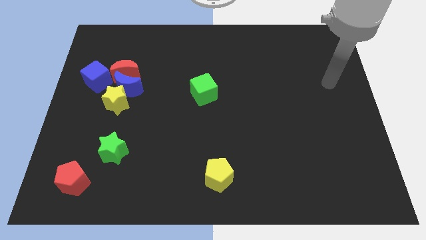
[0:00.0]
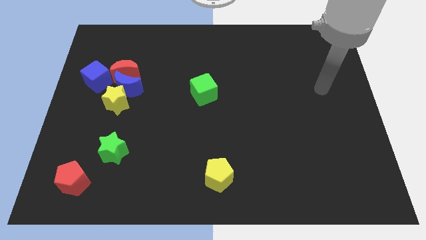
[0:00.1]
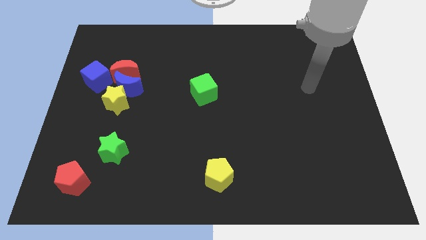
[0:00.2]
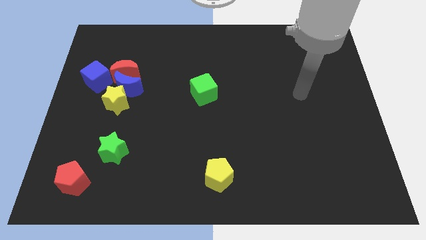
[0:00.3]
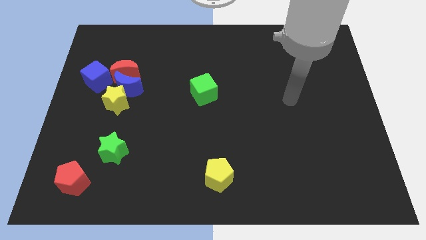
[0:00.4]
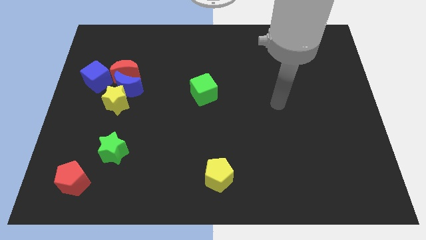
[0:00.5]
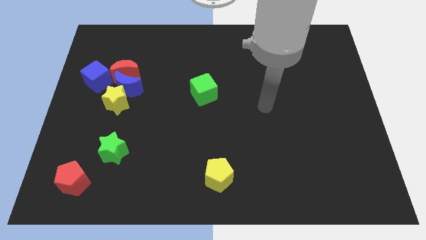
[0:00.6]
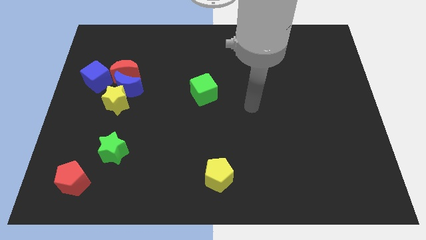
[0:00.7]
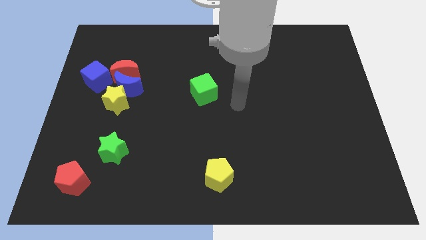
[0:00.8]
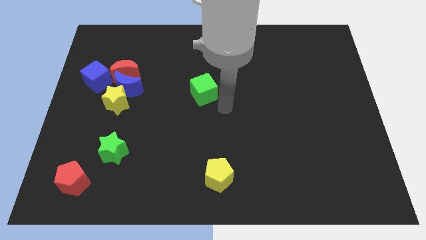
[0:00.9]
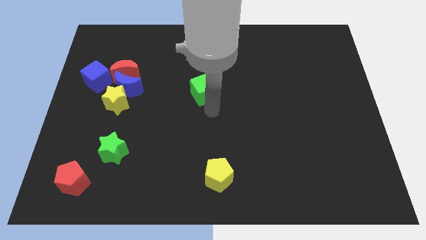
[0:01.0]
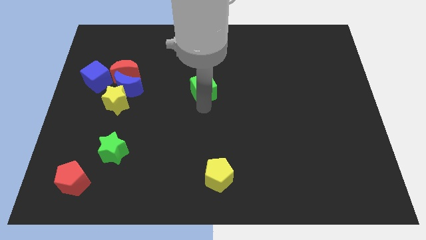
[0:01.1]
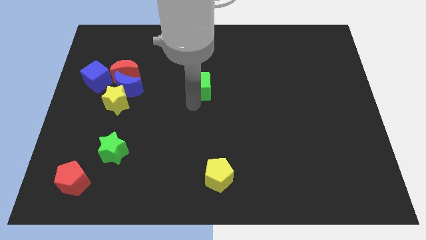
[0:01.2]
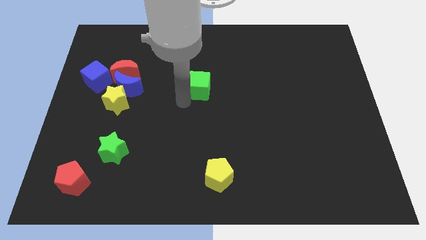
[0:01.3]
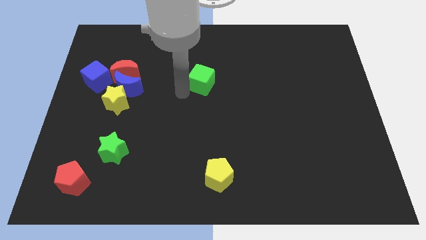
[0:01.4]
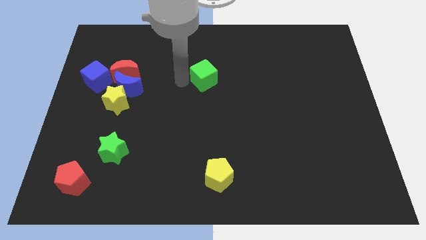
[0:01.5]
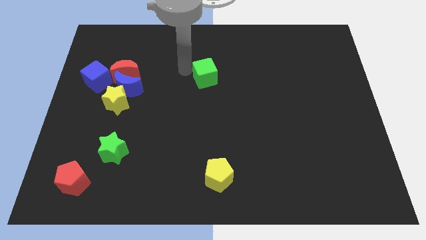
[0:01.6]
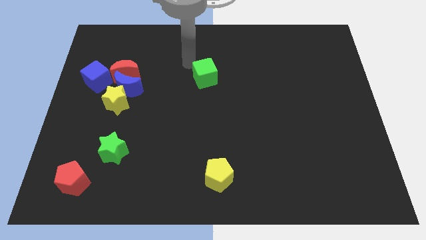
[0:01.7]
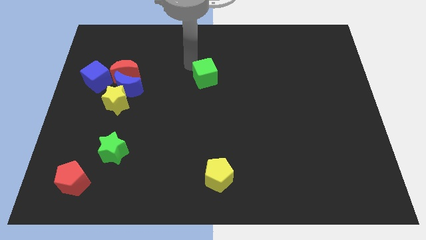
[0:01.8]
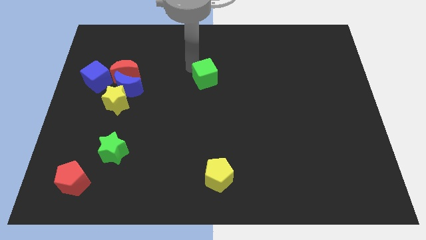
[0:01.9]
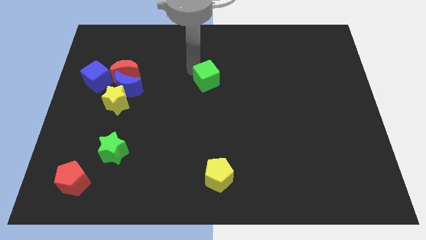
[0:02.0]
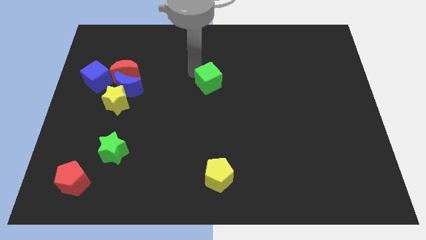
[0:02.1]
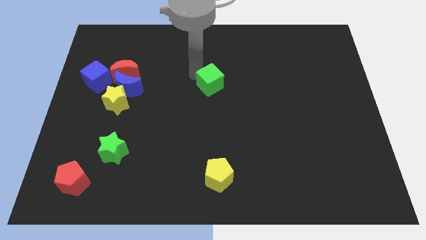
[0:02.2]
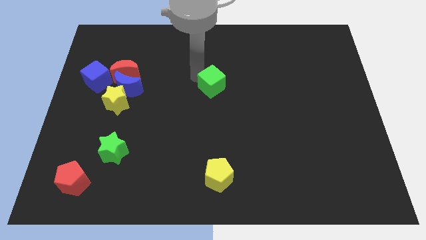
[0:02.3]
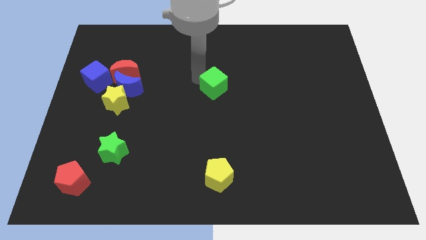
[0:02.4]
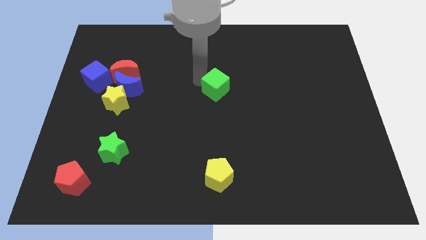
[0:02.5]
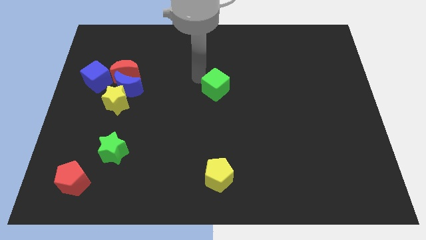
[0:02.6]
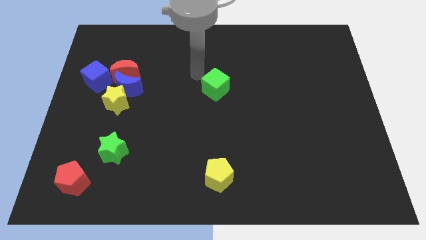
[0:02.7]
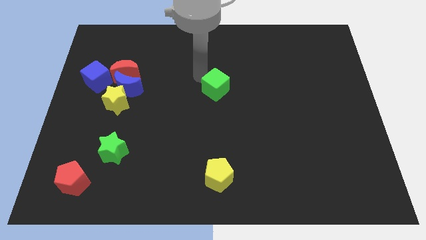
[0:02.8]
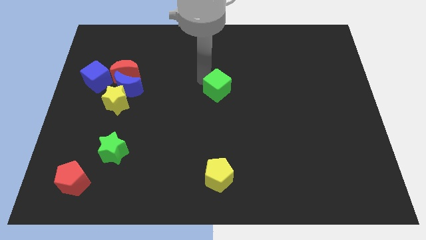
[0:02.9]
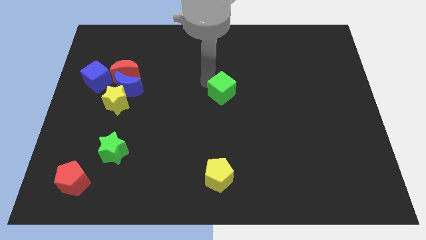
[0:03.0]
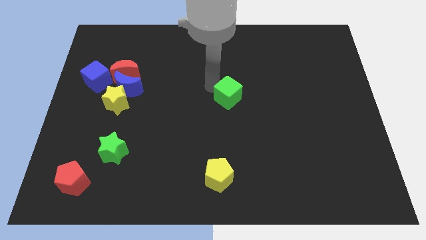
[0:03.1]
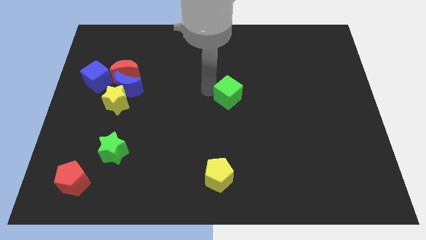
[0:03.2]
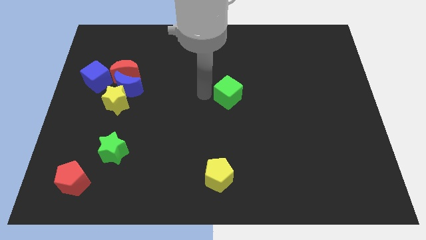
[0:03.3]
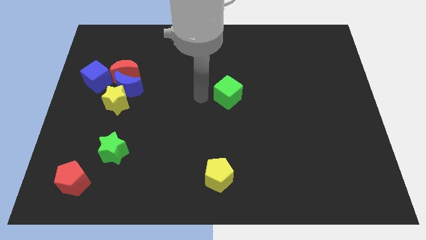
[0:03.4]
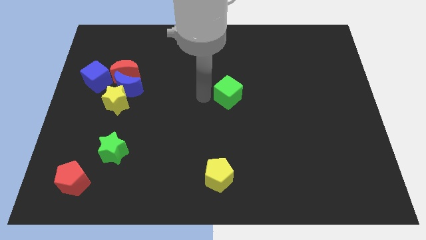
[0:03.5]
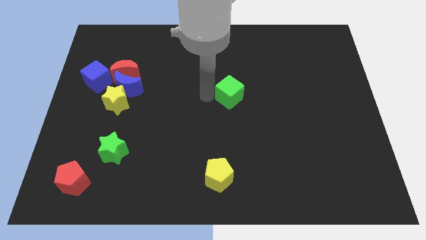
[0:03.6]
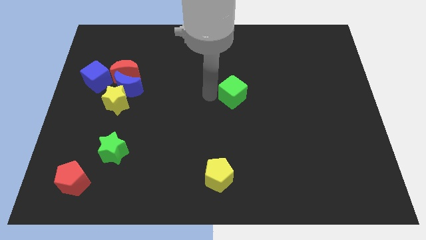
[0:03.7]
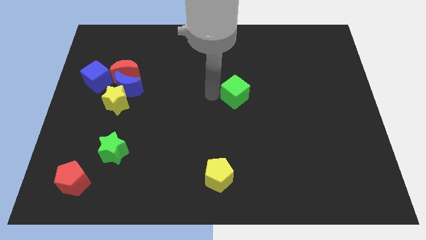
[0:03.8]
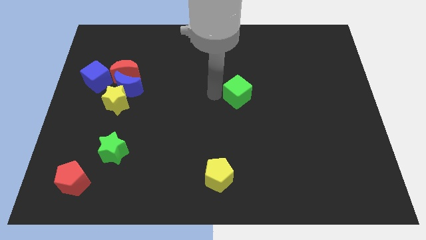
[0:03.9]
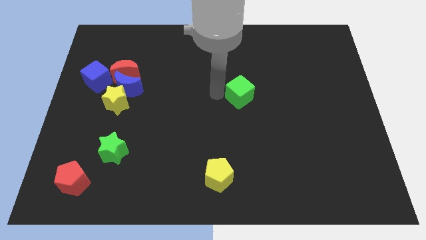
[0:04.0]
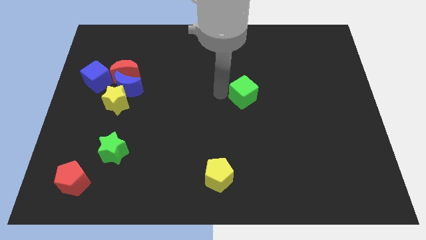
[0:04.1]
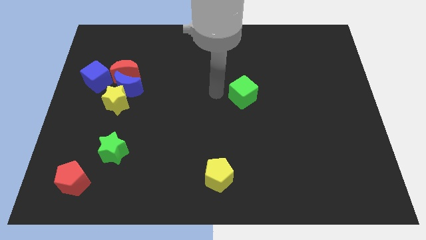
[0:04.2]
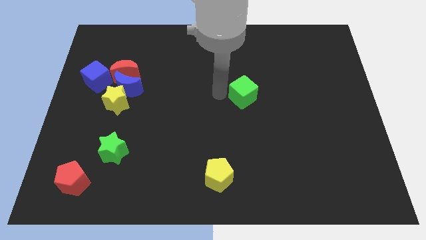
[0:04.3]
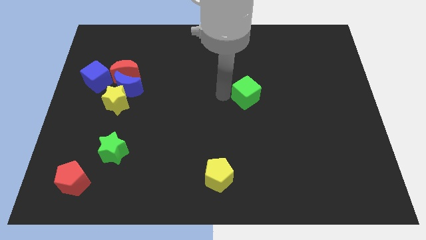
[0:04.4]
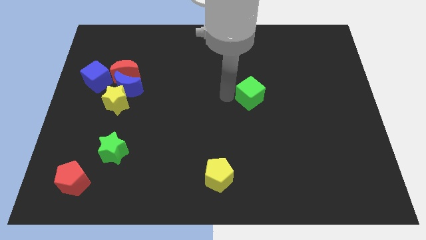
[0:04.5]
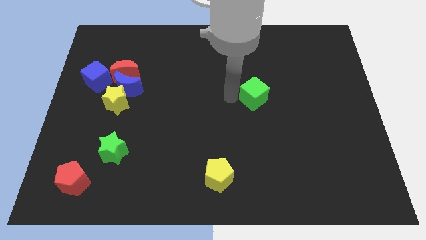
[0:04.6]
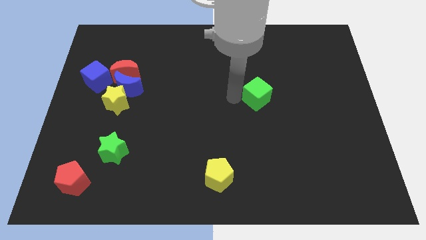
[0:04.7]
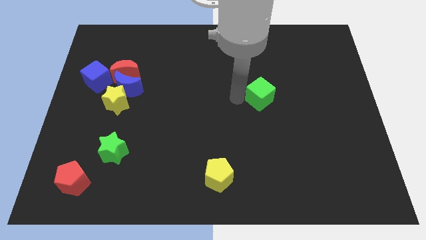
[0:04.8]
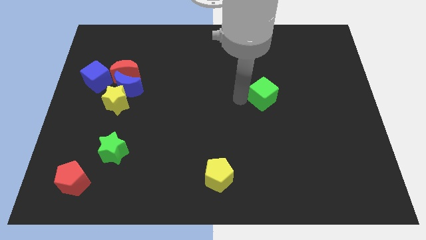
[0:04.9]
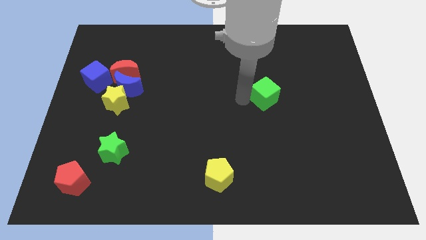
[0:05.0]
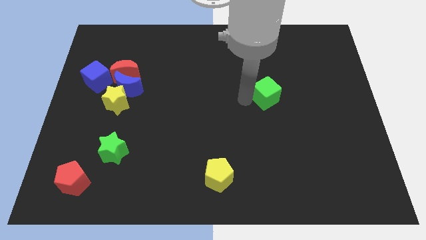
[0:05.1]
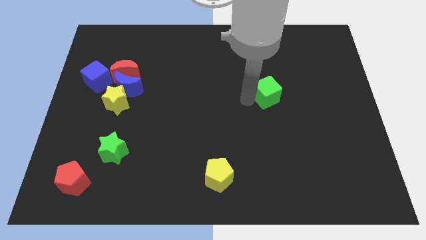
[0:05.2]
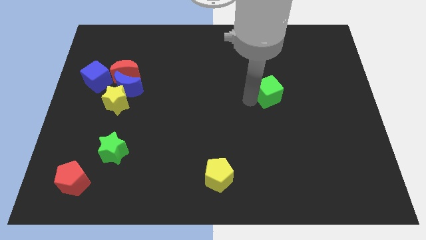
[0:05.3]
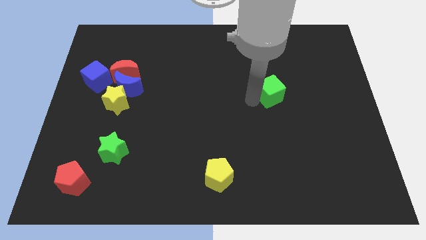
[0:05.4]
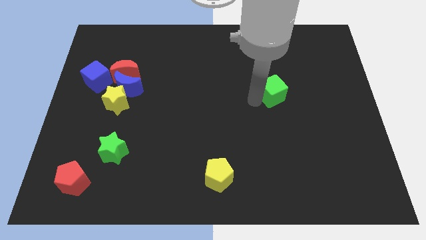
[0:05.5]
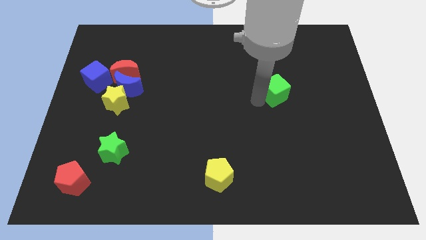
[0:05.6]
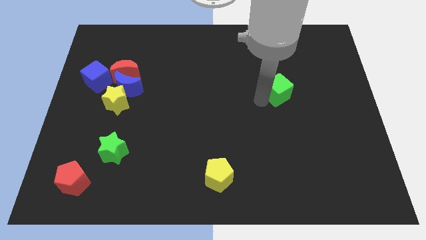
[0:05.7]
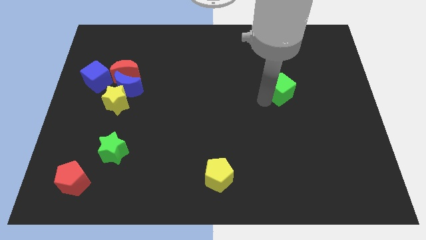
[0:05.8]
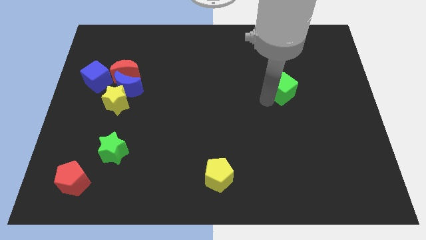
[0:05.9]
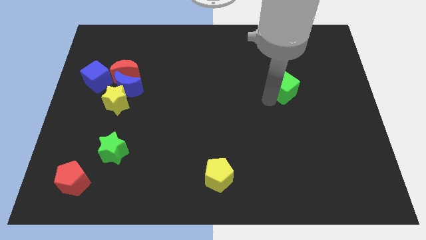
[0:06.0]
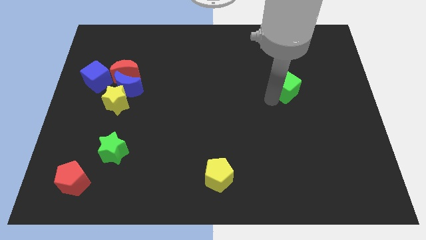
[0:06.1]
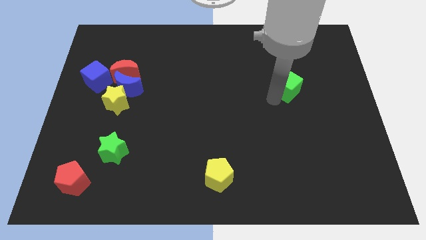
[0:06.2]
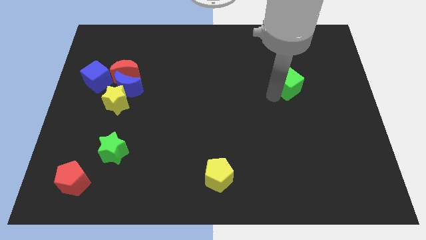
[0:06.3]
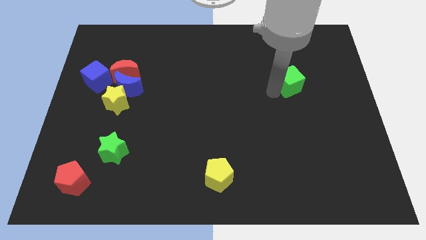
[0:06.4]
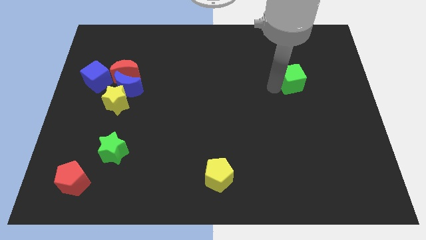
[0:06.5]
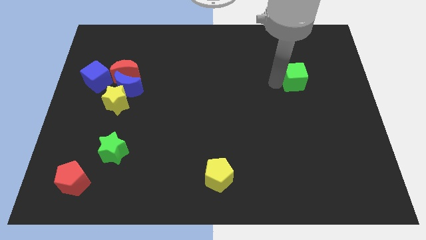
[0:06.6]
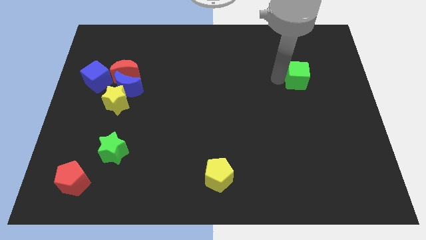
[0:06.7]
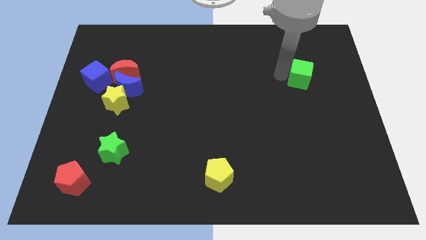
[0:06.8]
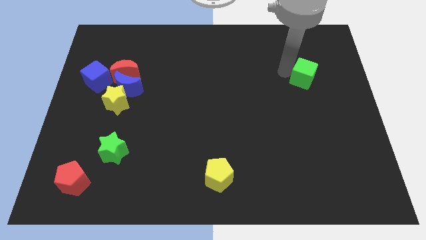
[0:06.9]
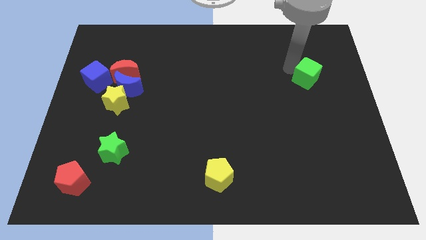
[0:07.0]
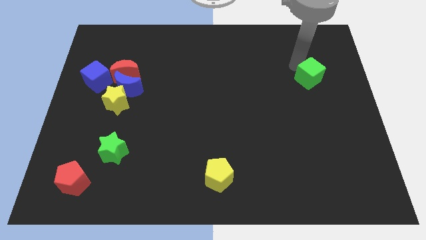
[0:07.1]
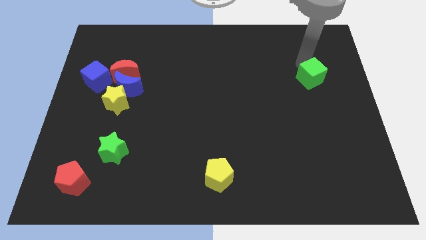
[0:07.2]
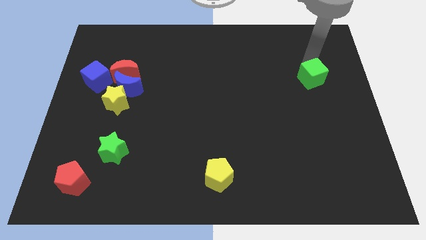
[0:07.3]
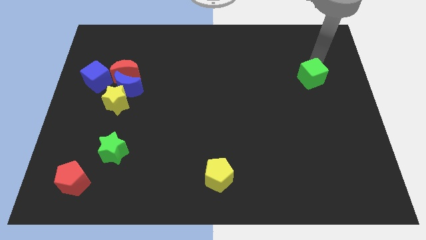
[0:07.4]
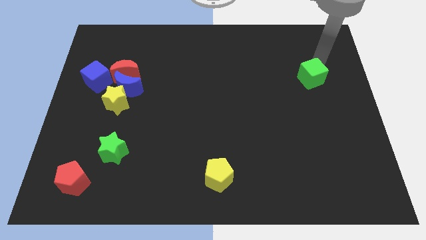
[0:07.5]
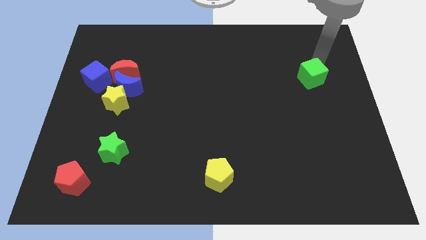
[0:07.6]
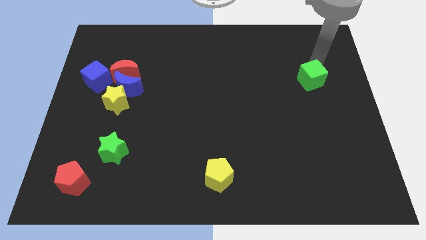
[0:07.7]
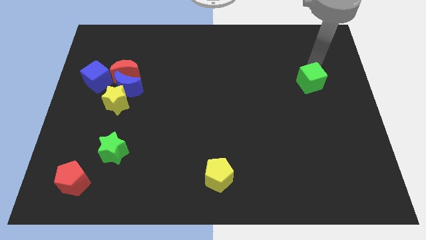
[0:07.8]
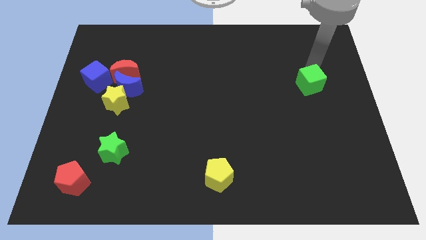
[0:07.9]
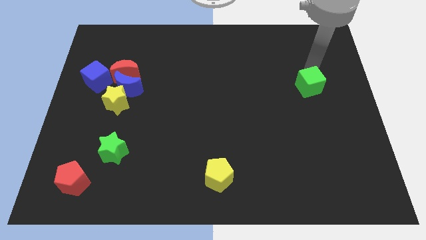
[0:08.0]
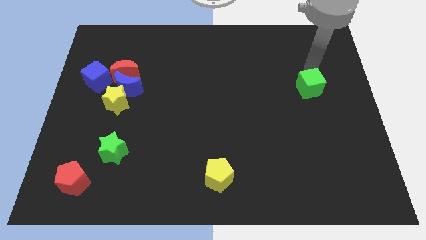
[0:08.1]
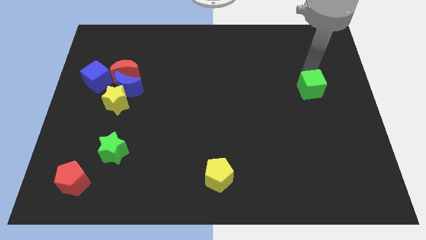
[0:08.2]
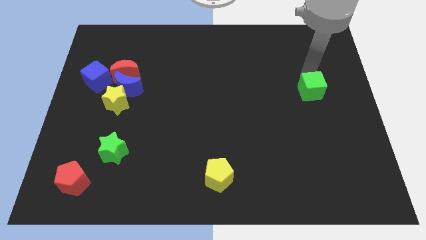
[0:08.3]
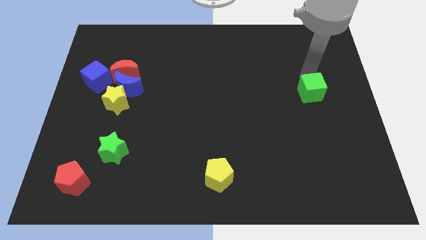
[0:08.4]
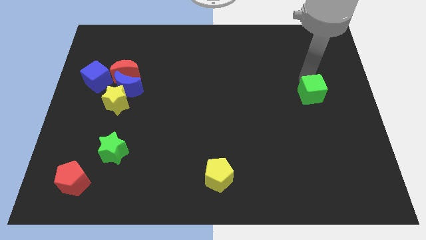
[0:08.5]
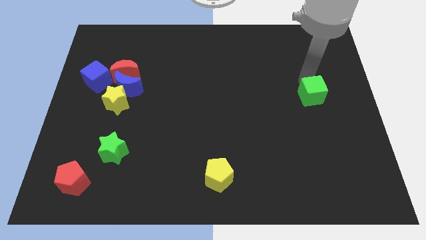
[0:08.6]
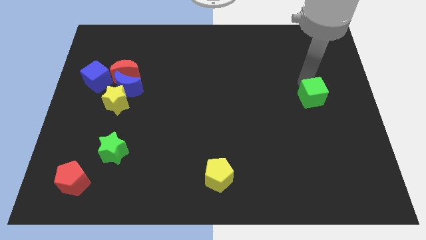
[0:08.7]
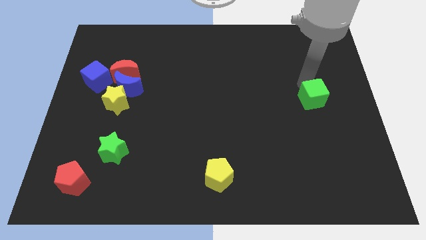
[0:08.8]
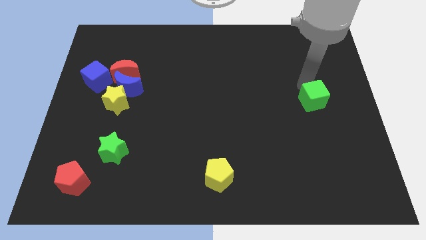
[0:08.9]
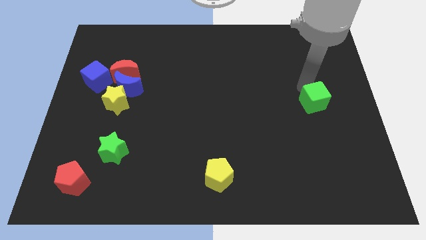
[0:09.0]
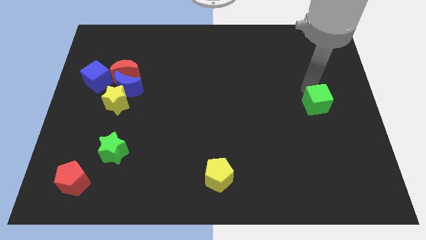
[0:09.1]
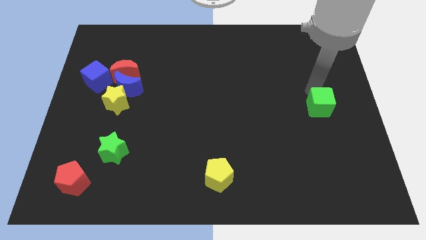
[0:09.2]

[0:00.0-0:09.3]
push the green cube to the center right
